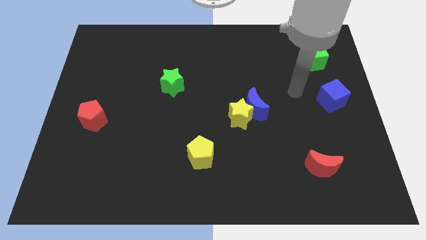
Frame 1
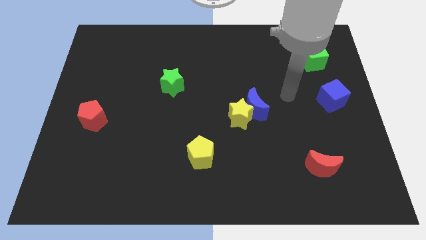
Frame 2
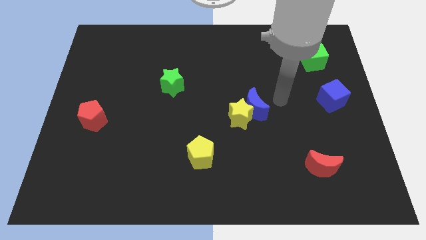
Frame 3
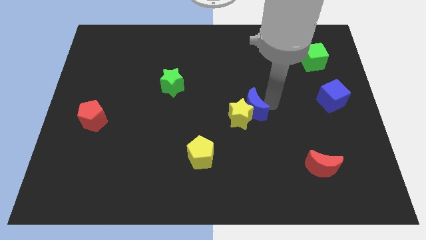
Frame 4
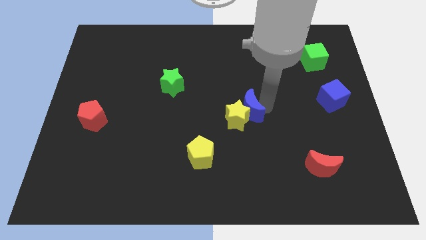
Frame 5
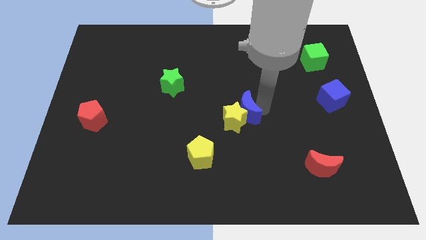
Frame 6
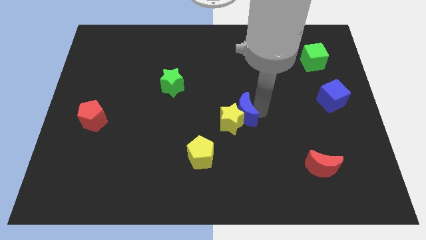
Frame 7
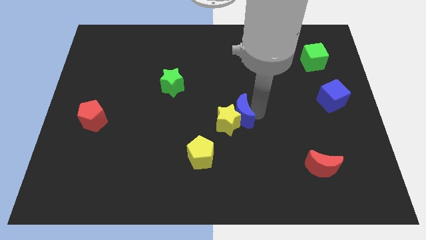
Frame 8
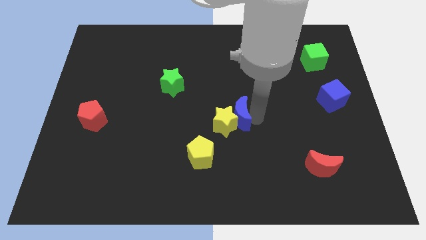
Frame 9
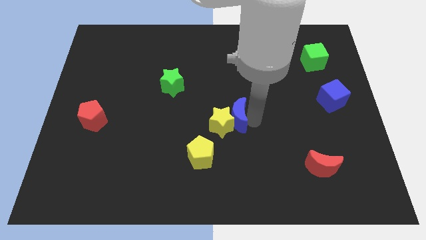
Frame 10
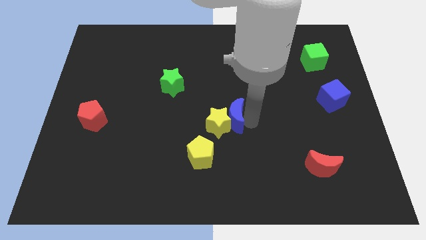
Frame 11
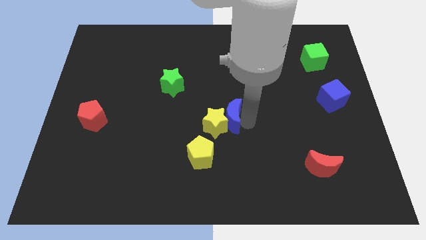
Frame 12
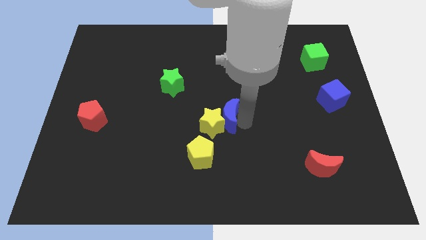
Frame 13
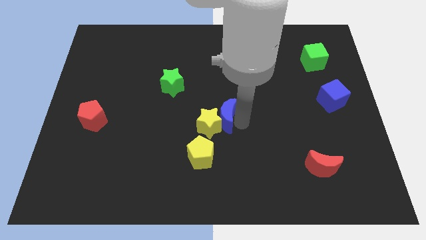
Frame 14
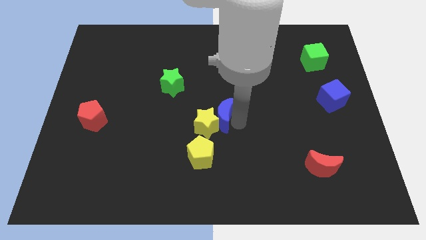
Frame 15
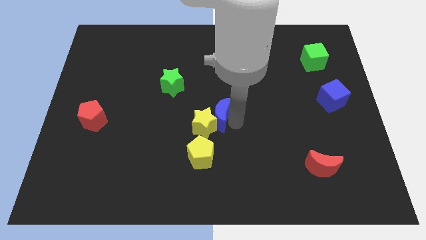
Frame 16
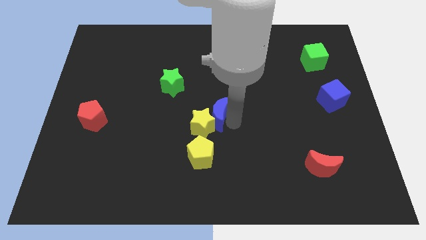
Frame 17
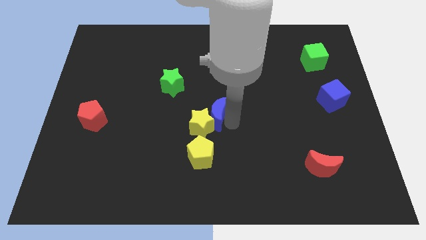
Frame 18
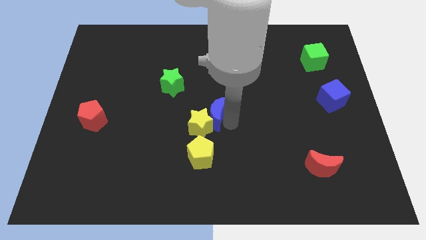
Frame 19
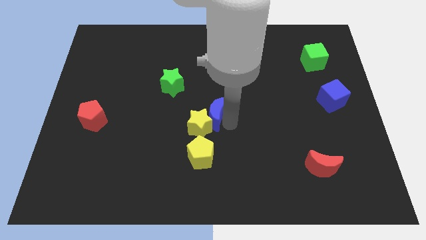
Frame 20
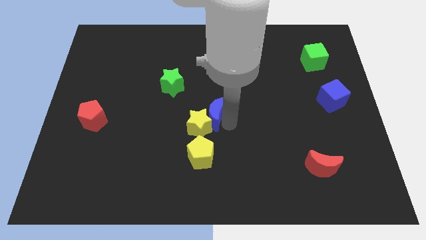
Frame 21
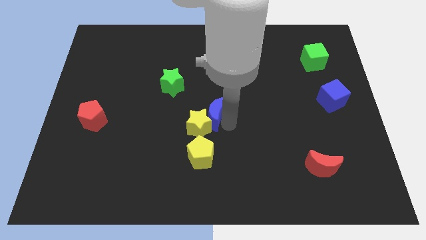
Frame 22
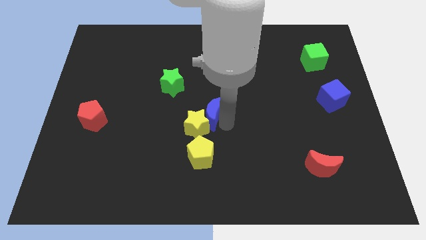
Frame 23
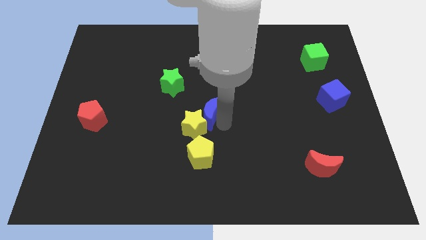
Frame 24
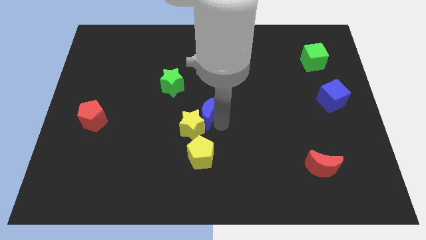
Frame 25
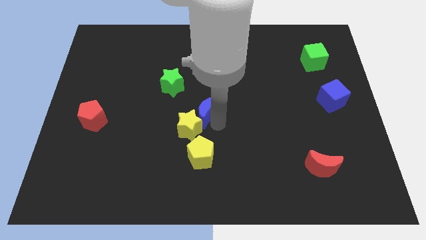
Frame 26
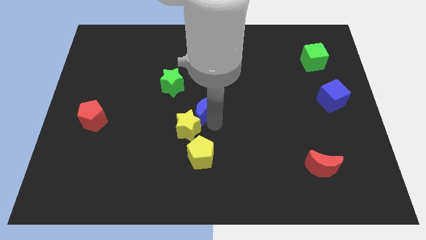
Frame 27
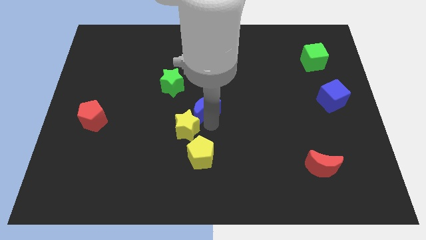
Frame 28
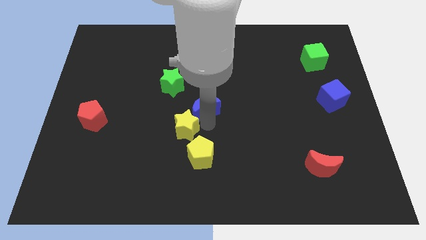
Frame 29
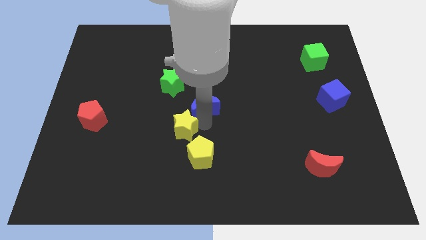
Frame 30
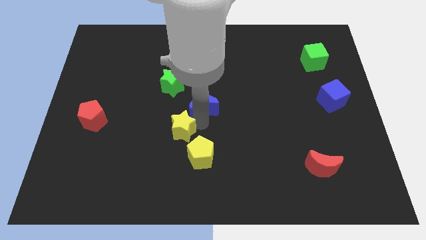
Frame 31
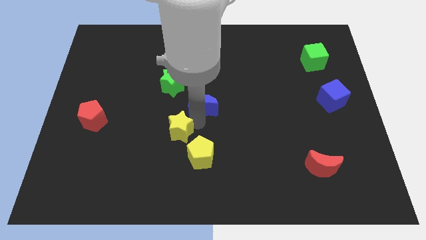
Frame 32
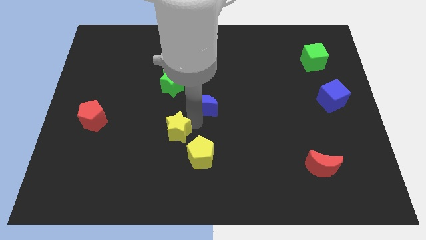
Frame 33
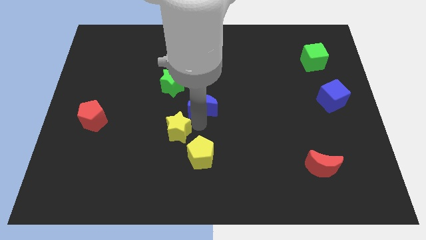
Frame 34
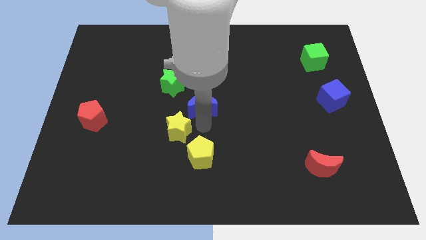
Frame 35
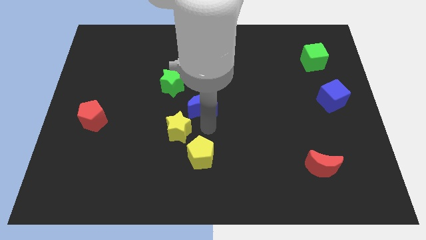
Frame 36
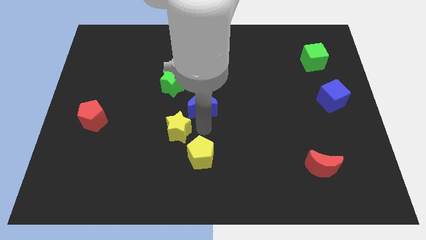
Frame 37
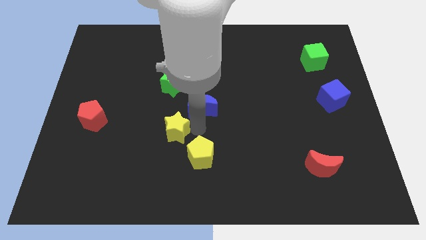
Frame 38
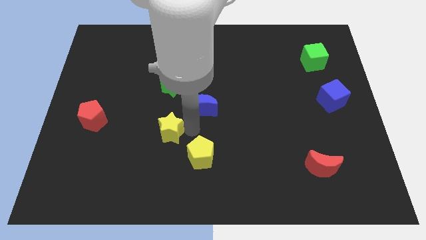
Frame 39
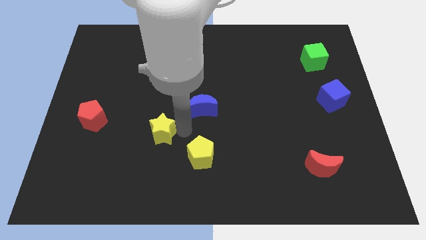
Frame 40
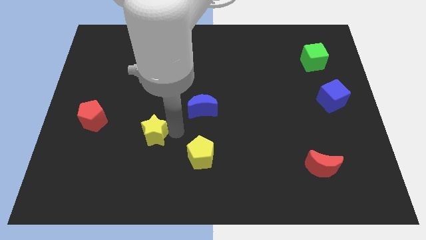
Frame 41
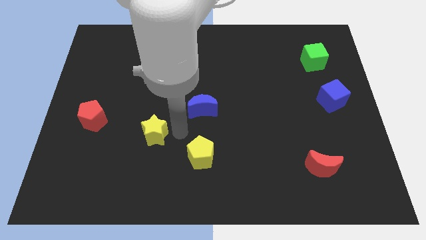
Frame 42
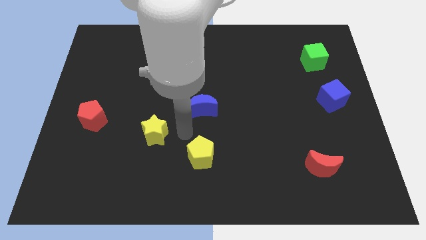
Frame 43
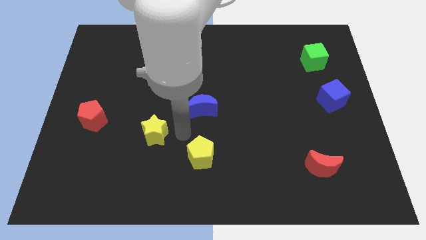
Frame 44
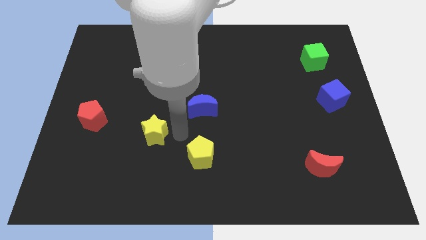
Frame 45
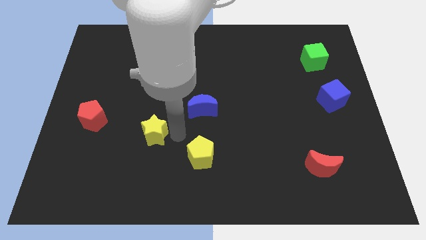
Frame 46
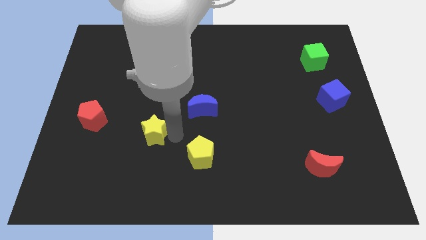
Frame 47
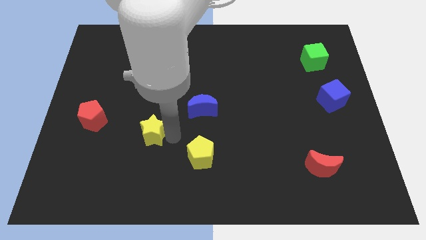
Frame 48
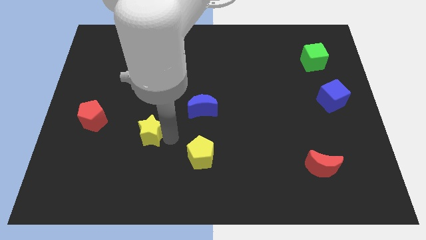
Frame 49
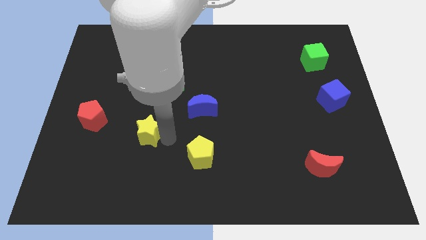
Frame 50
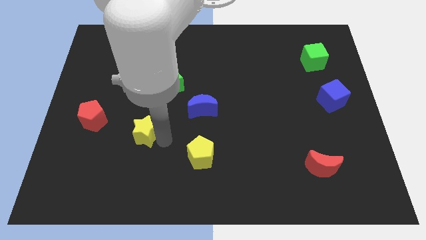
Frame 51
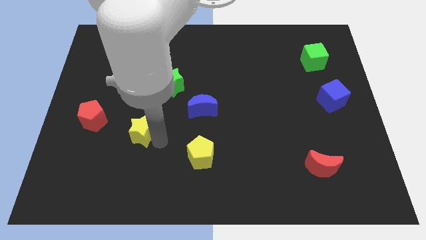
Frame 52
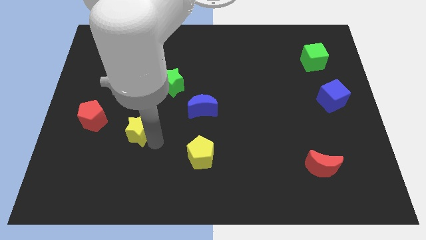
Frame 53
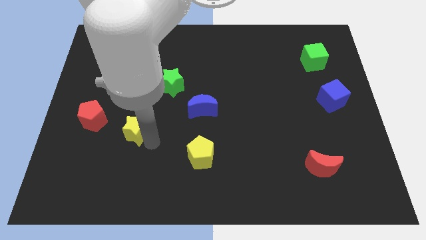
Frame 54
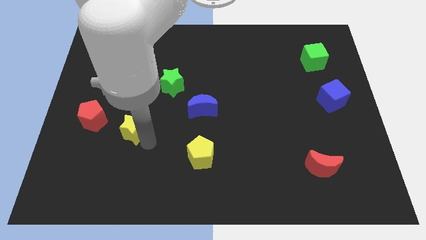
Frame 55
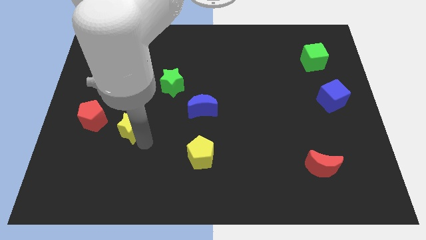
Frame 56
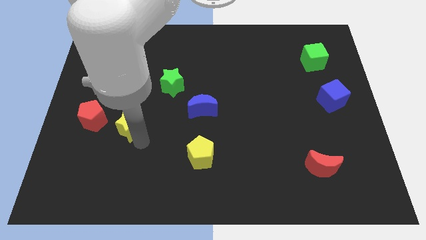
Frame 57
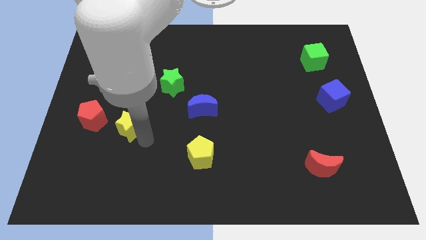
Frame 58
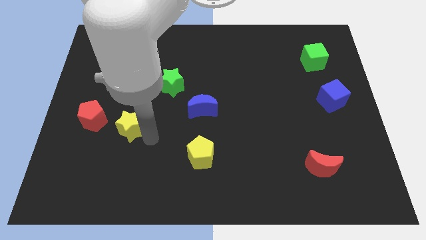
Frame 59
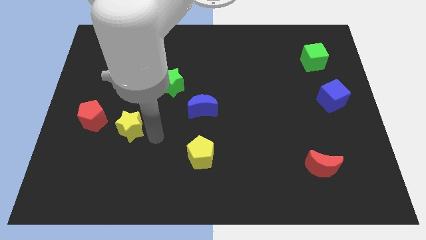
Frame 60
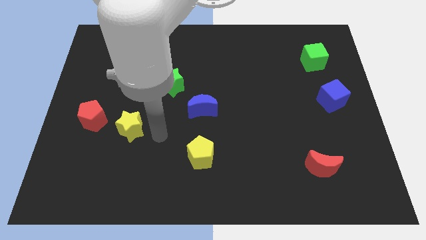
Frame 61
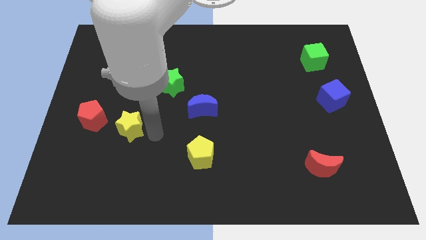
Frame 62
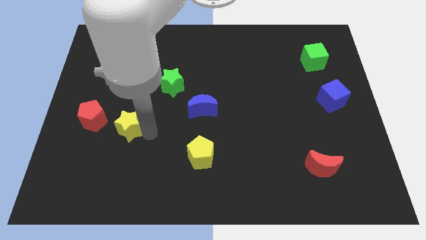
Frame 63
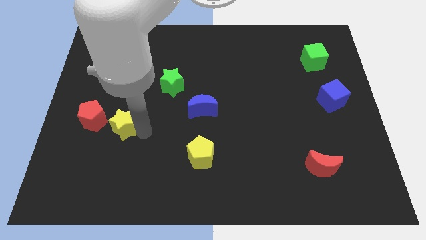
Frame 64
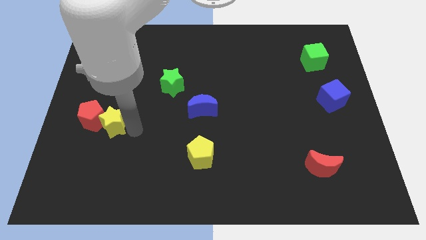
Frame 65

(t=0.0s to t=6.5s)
slide the yellow star to the red pentagon

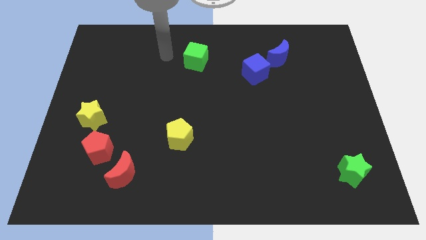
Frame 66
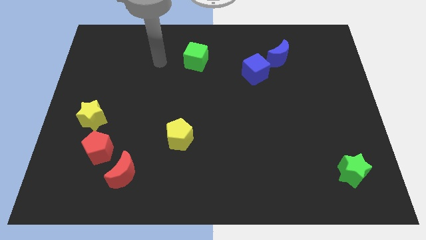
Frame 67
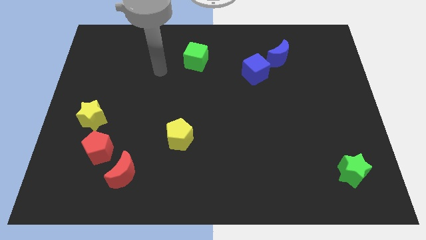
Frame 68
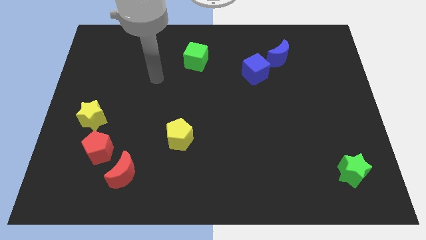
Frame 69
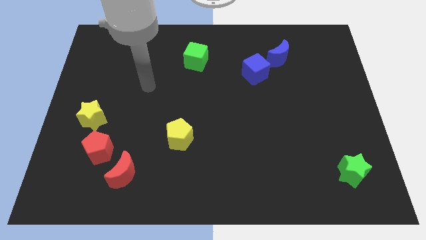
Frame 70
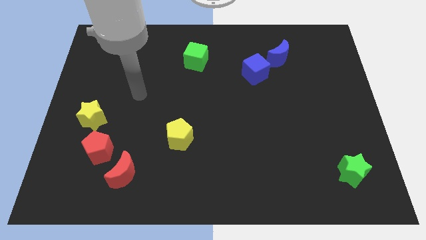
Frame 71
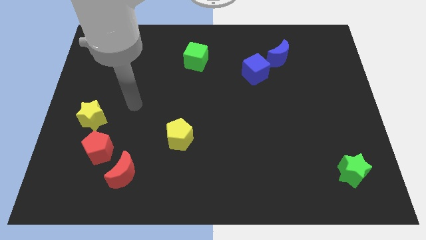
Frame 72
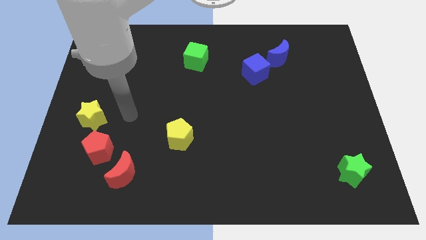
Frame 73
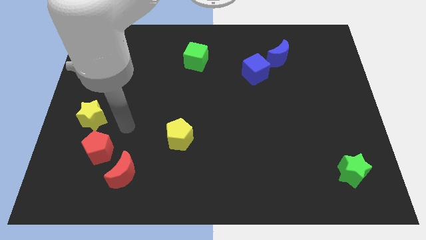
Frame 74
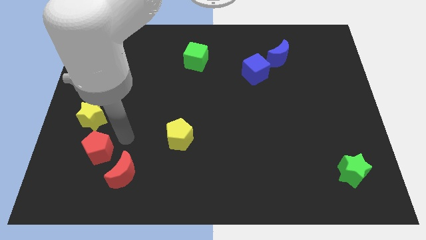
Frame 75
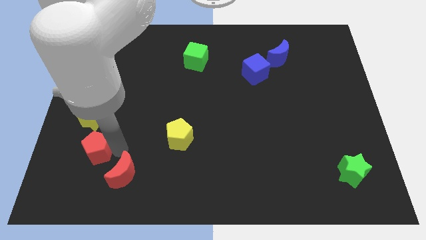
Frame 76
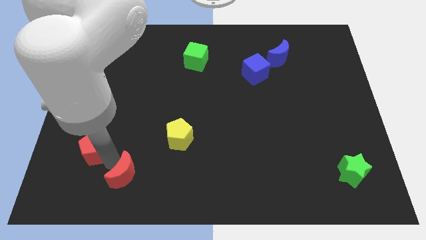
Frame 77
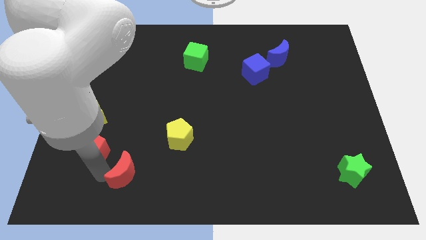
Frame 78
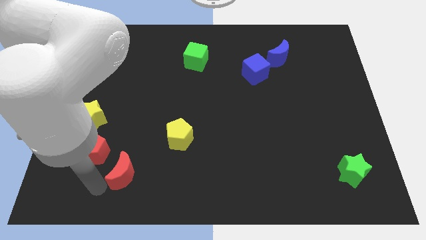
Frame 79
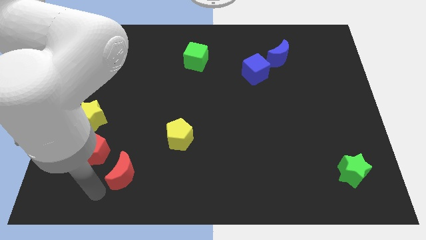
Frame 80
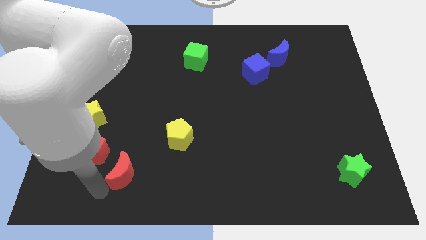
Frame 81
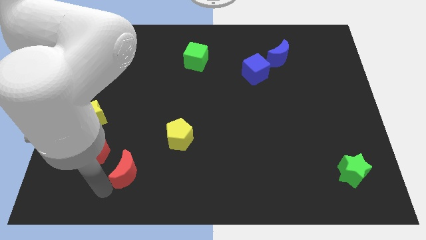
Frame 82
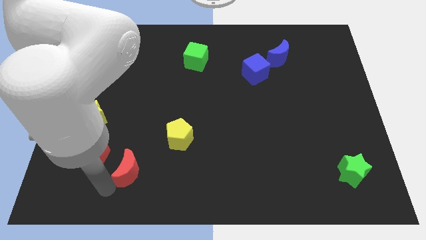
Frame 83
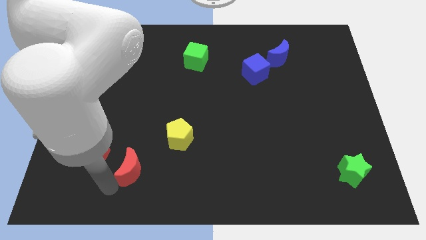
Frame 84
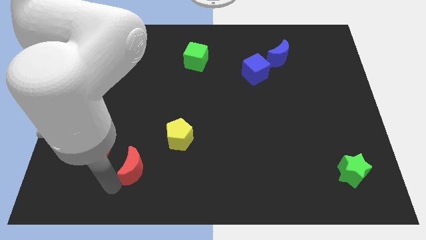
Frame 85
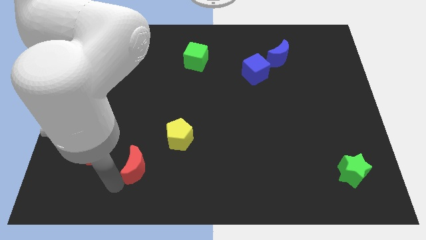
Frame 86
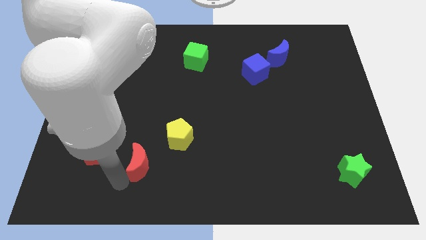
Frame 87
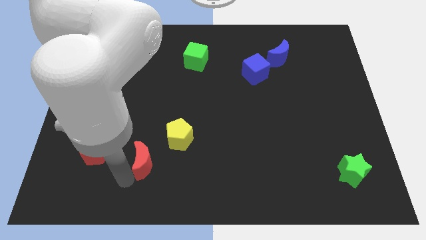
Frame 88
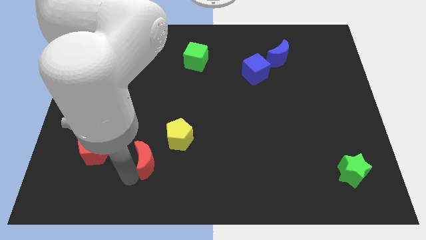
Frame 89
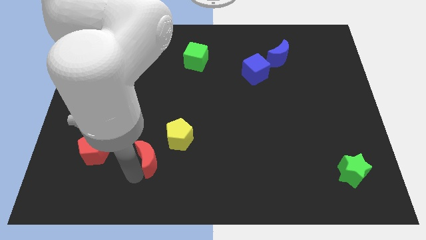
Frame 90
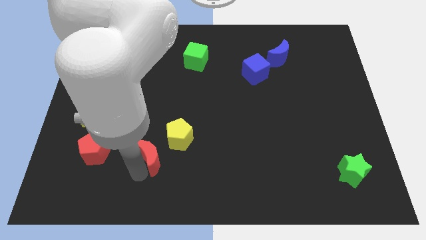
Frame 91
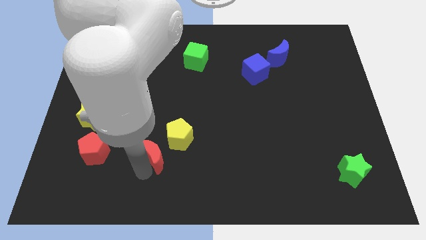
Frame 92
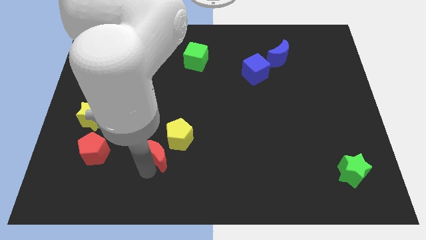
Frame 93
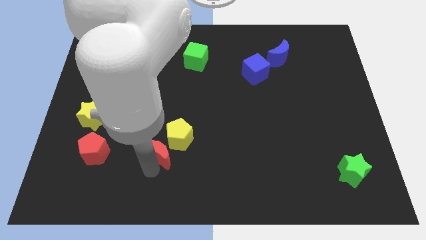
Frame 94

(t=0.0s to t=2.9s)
move the red moon towards the yellow pentagon
